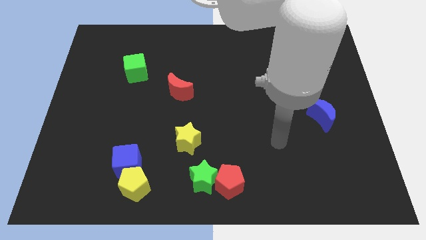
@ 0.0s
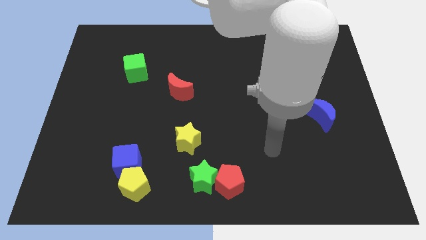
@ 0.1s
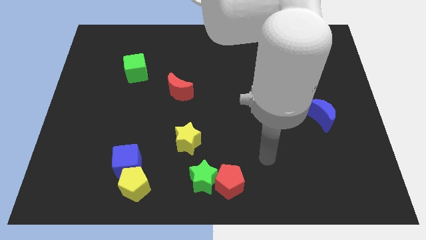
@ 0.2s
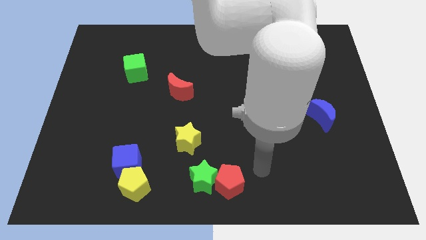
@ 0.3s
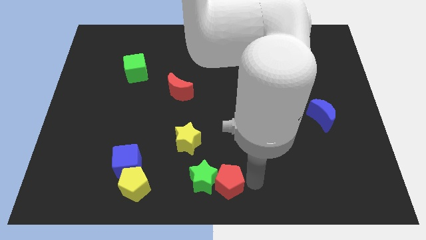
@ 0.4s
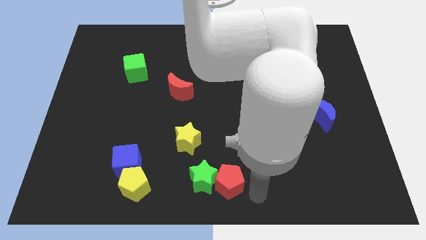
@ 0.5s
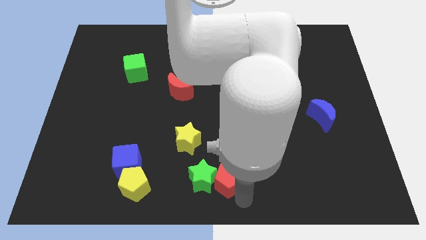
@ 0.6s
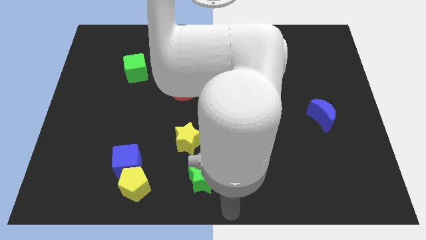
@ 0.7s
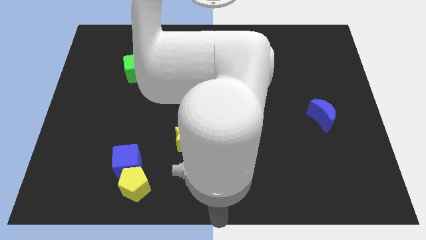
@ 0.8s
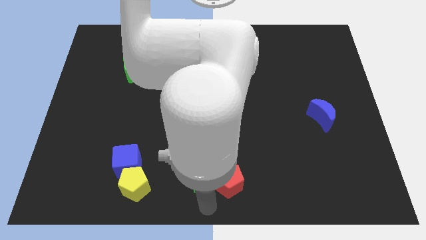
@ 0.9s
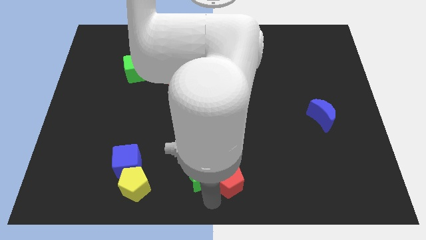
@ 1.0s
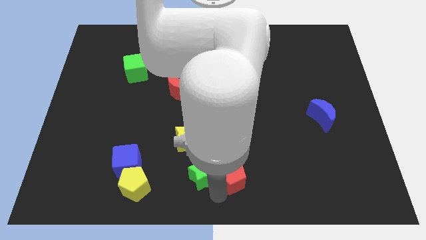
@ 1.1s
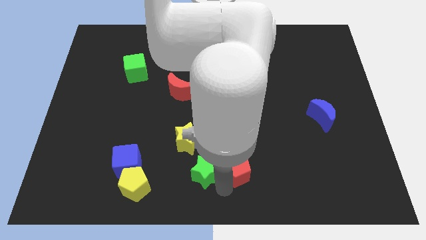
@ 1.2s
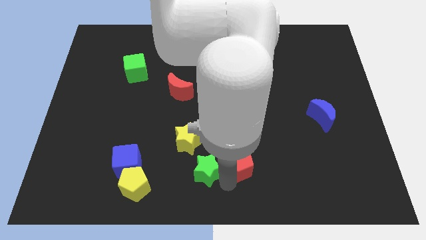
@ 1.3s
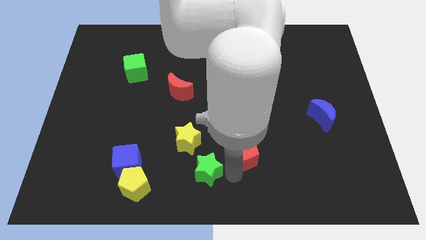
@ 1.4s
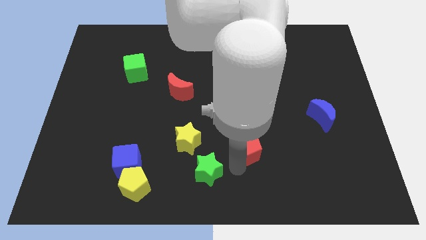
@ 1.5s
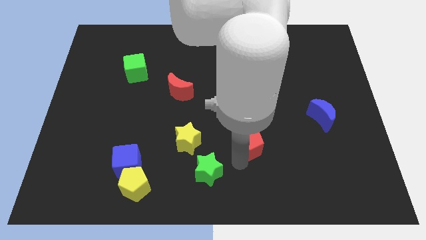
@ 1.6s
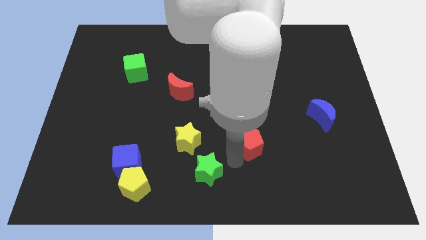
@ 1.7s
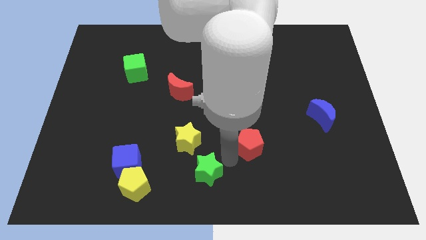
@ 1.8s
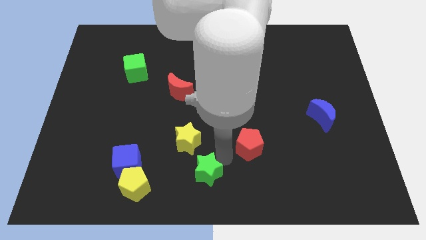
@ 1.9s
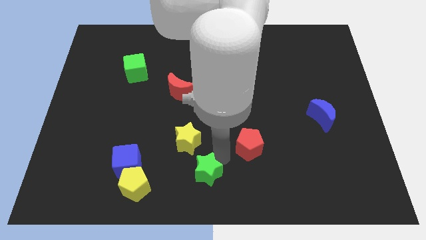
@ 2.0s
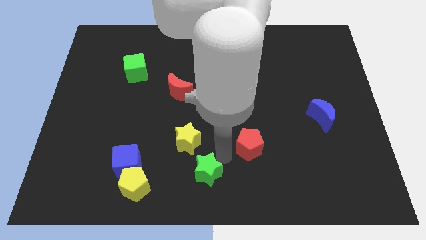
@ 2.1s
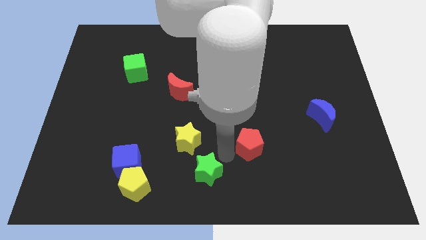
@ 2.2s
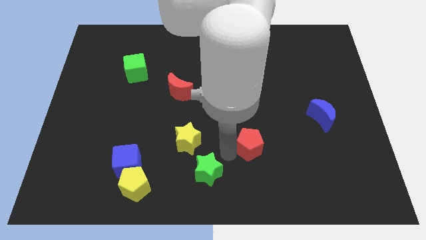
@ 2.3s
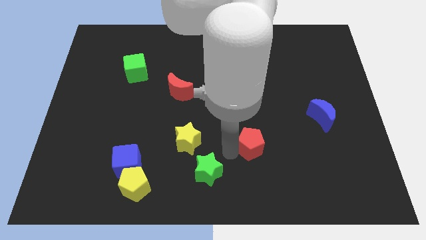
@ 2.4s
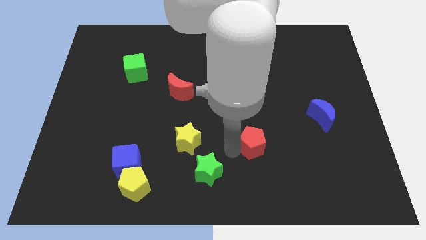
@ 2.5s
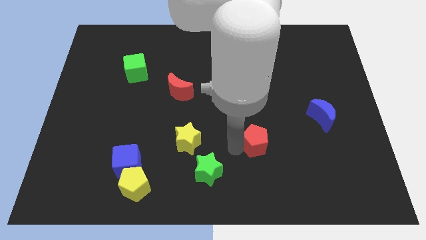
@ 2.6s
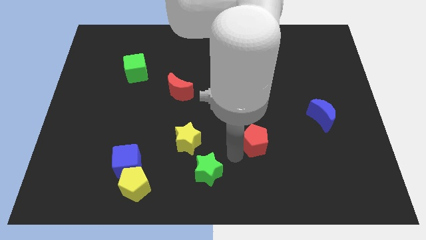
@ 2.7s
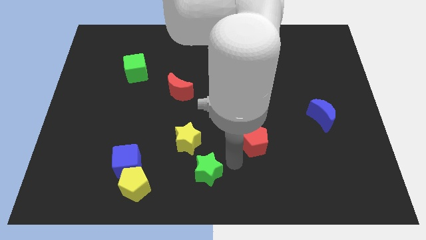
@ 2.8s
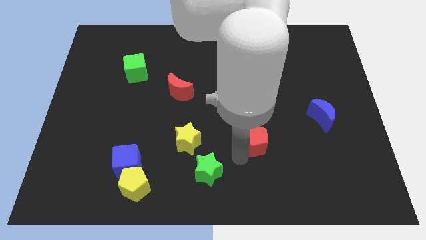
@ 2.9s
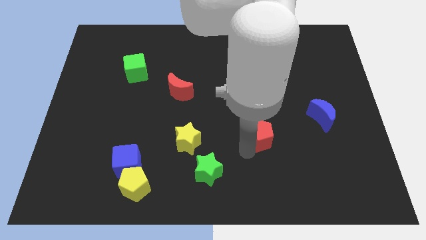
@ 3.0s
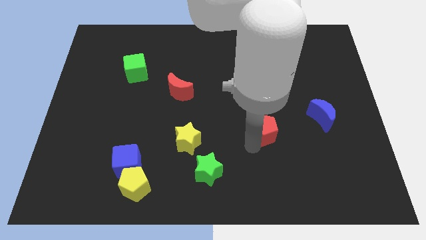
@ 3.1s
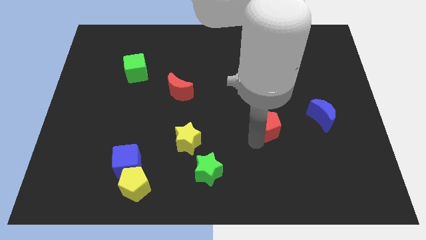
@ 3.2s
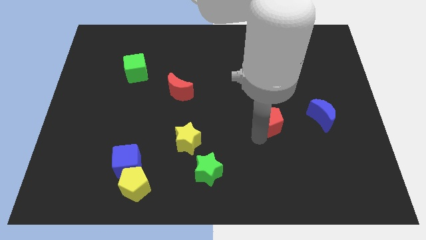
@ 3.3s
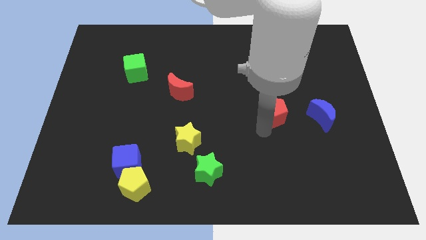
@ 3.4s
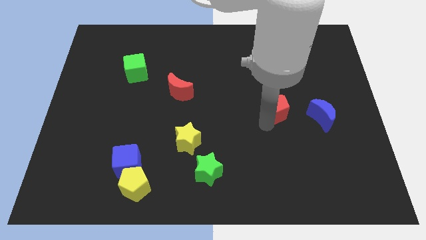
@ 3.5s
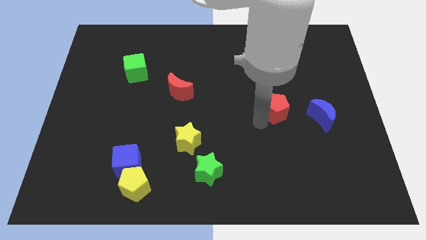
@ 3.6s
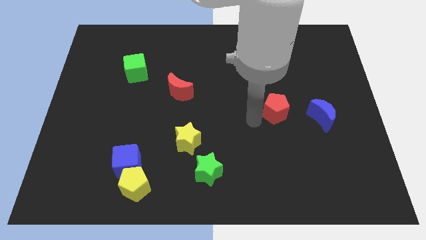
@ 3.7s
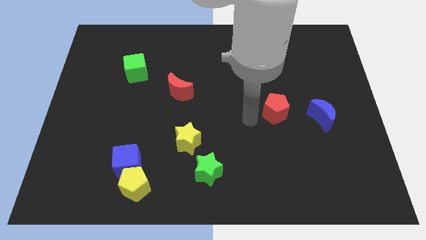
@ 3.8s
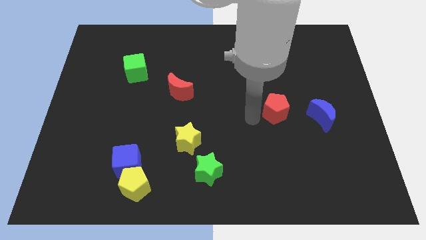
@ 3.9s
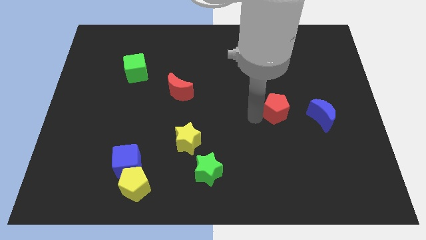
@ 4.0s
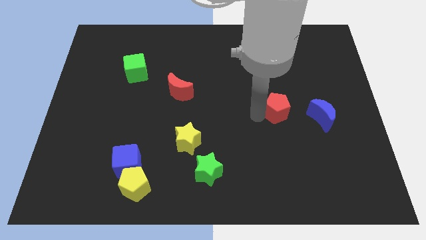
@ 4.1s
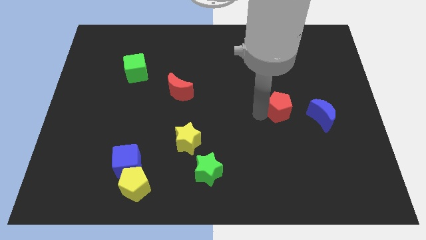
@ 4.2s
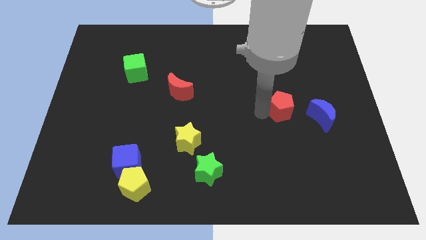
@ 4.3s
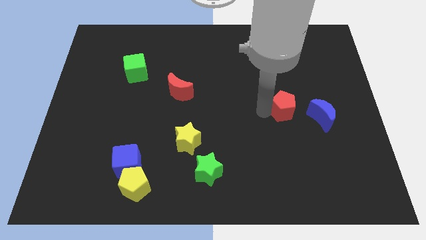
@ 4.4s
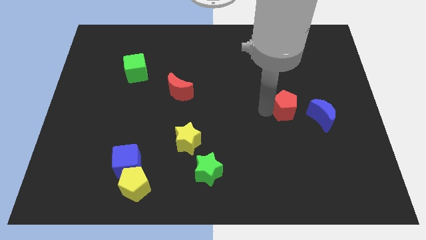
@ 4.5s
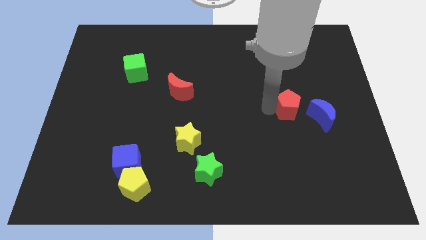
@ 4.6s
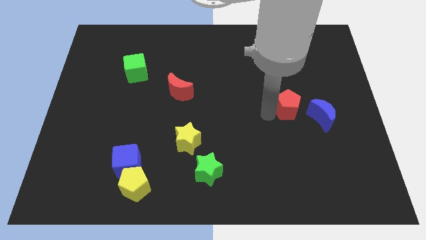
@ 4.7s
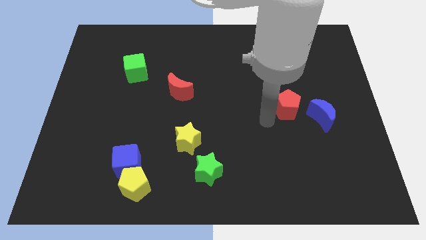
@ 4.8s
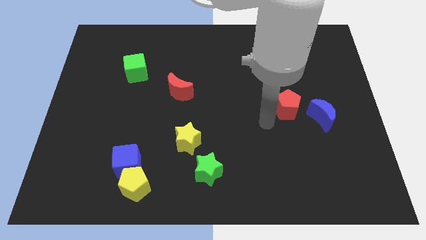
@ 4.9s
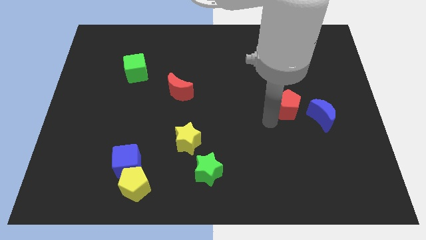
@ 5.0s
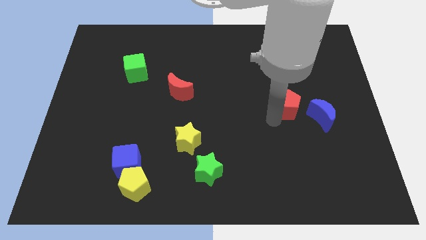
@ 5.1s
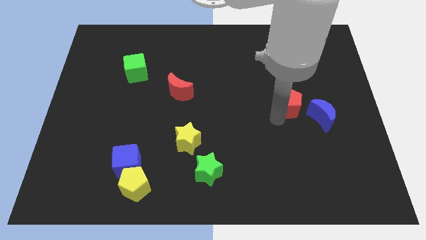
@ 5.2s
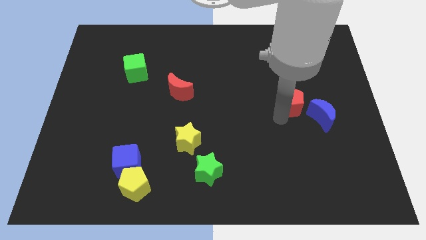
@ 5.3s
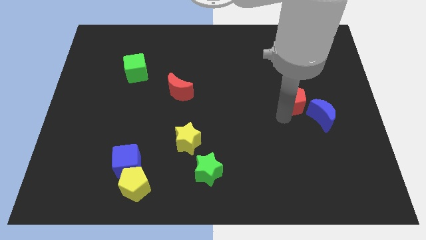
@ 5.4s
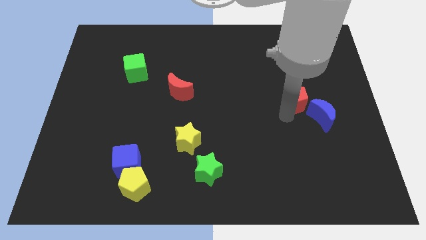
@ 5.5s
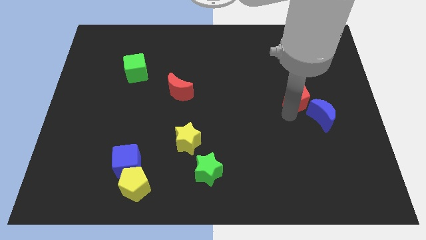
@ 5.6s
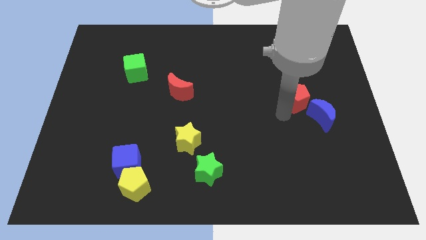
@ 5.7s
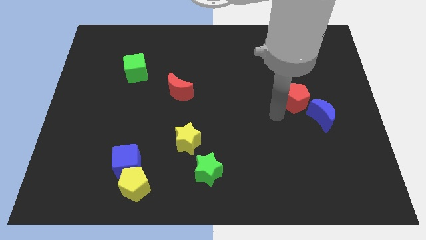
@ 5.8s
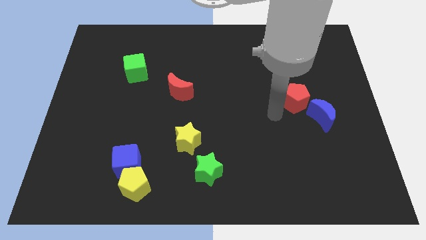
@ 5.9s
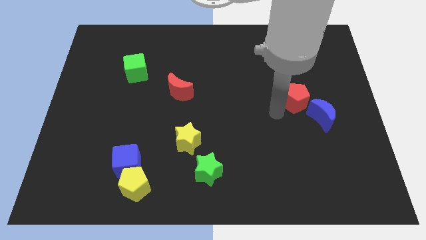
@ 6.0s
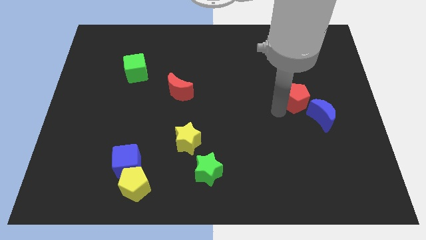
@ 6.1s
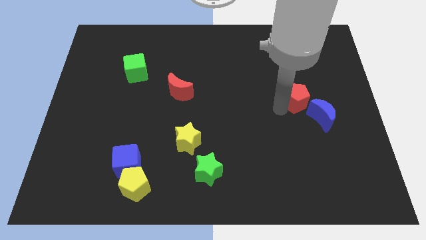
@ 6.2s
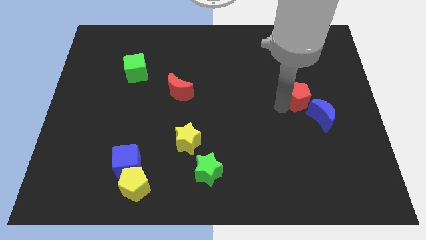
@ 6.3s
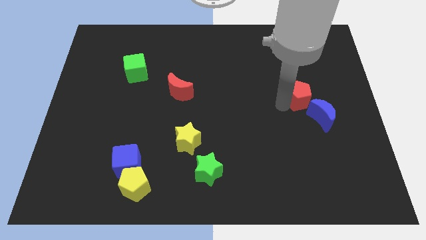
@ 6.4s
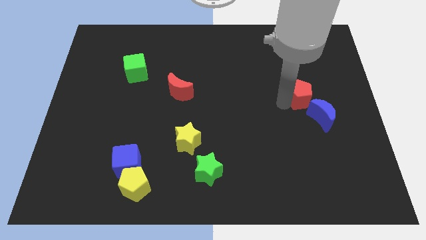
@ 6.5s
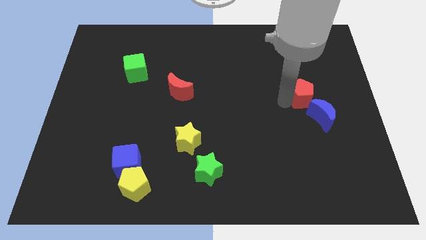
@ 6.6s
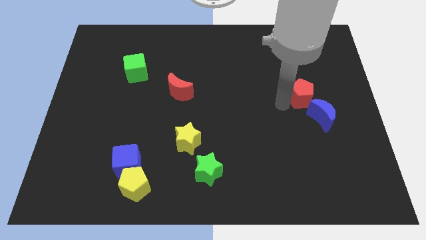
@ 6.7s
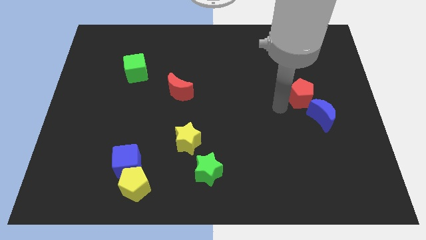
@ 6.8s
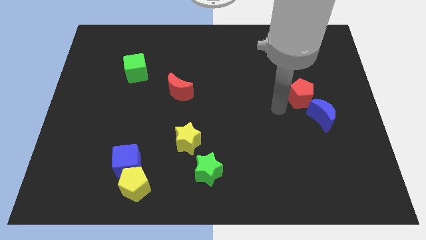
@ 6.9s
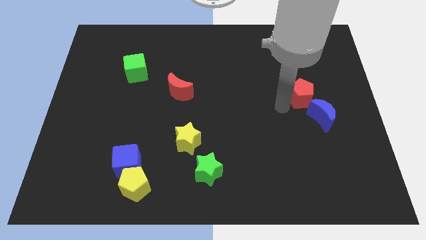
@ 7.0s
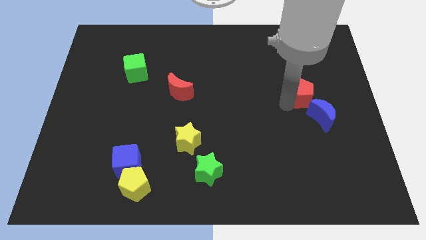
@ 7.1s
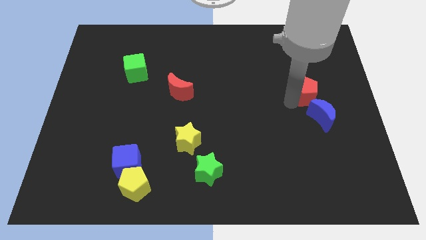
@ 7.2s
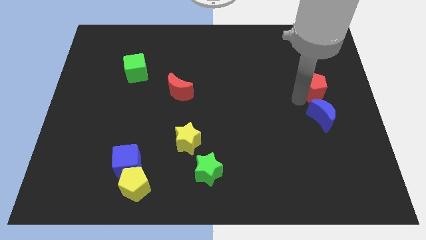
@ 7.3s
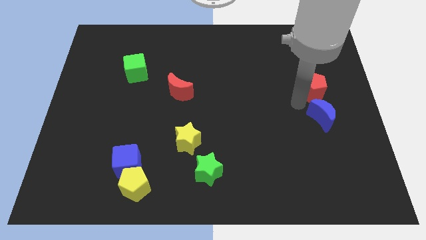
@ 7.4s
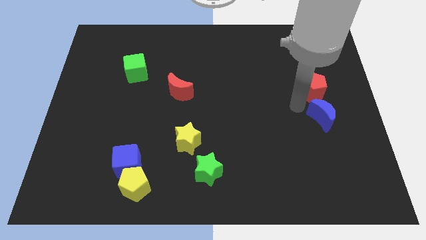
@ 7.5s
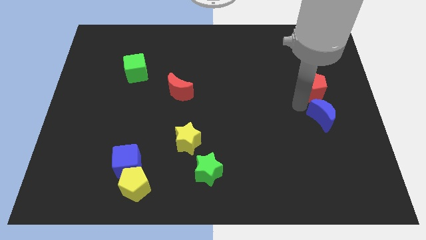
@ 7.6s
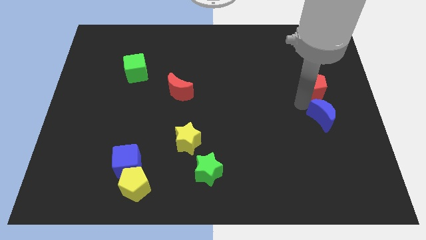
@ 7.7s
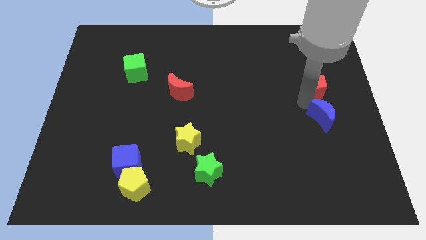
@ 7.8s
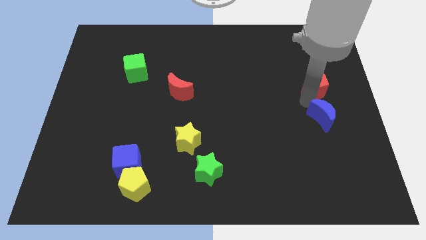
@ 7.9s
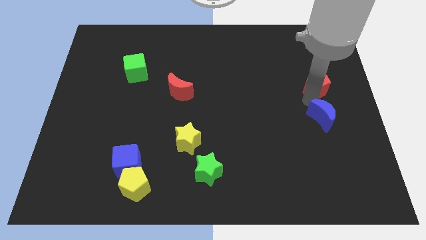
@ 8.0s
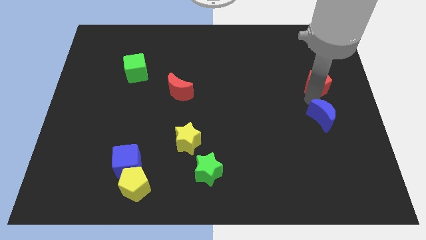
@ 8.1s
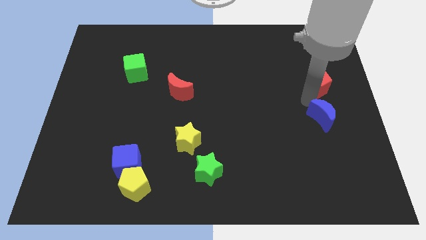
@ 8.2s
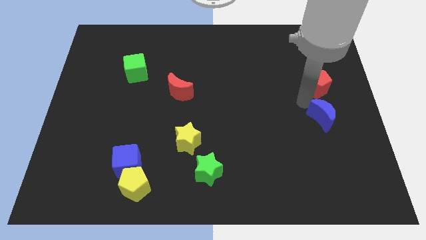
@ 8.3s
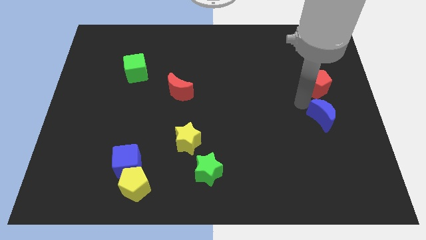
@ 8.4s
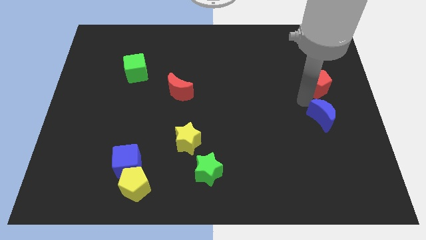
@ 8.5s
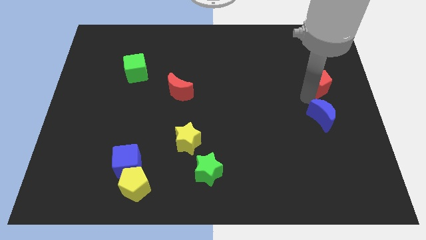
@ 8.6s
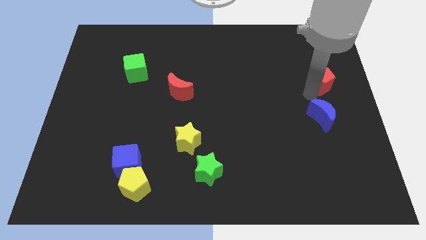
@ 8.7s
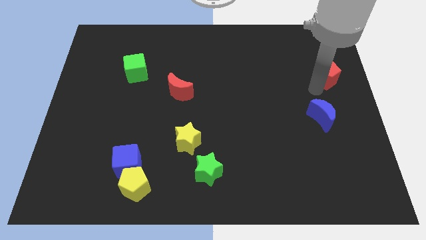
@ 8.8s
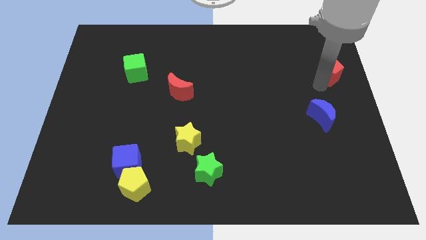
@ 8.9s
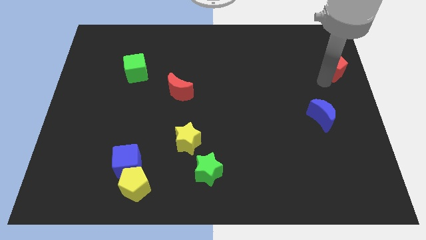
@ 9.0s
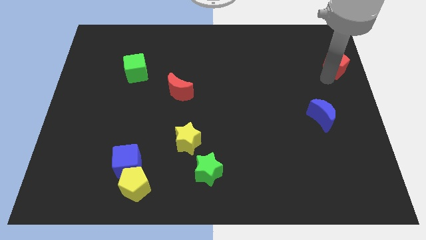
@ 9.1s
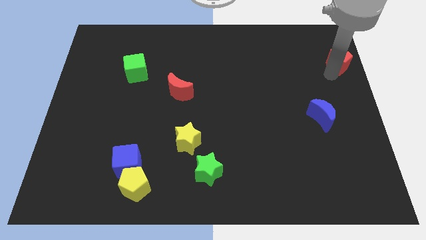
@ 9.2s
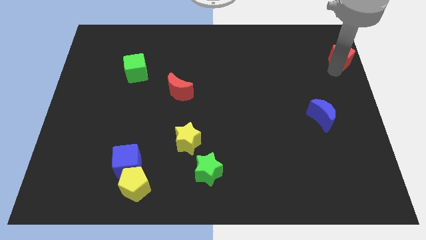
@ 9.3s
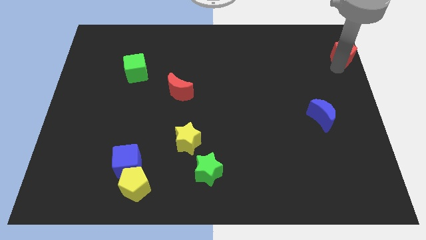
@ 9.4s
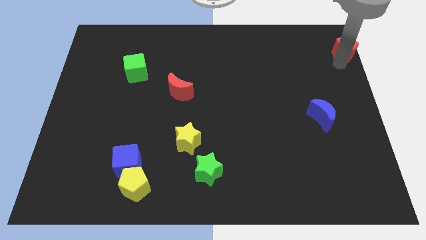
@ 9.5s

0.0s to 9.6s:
move the red pentagon to the top right
